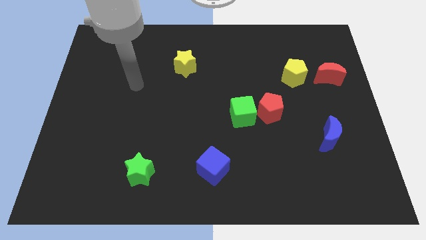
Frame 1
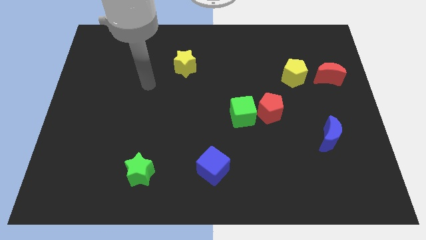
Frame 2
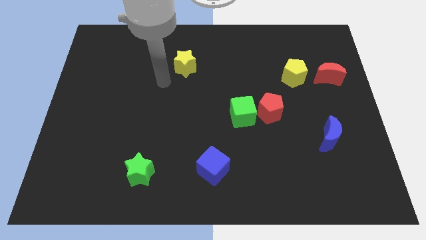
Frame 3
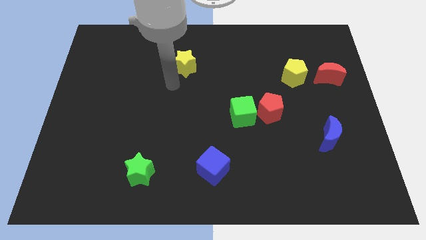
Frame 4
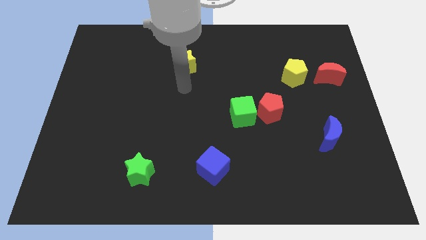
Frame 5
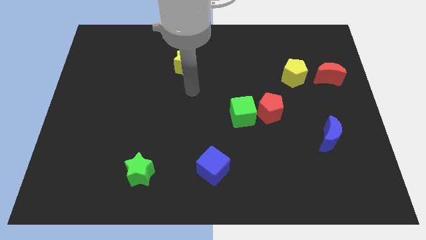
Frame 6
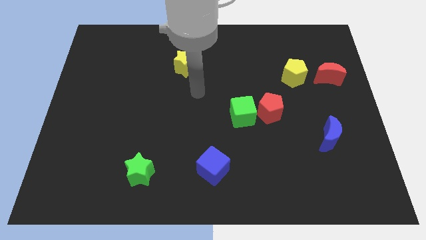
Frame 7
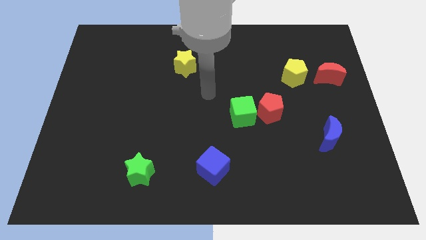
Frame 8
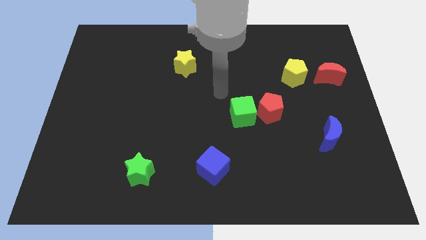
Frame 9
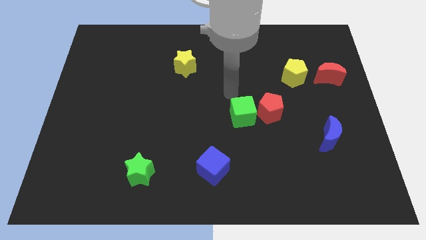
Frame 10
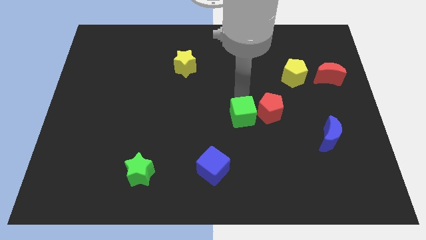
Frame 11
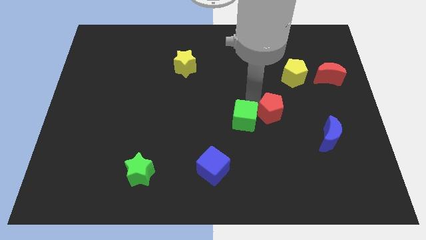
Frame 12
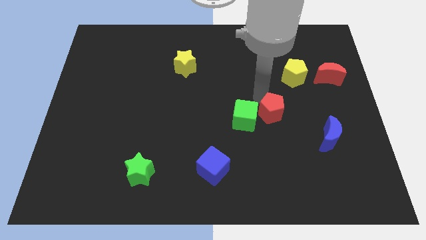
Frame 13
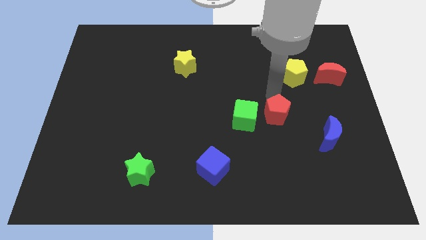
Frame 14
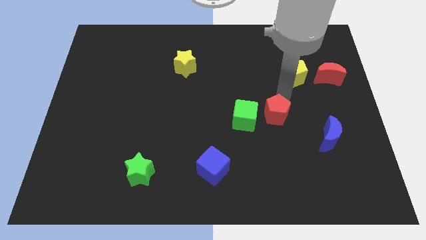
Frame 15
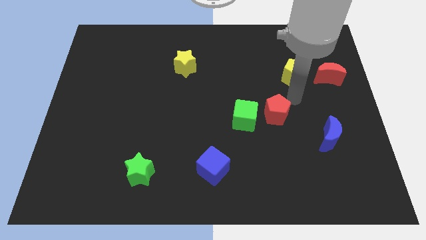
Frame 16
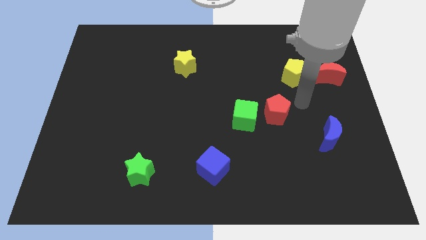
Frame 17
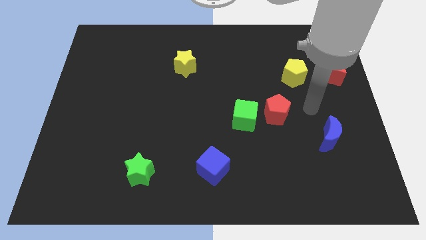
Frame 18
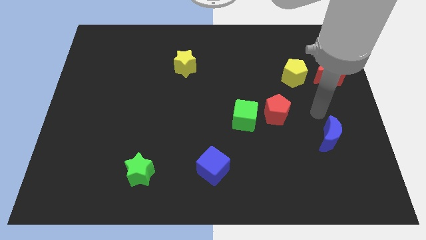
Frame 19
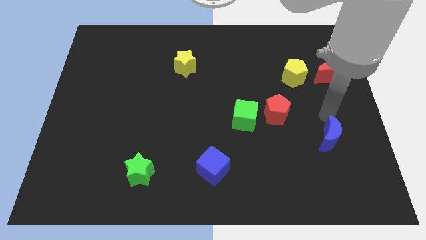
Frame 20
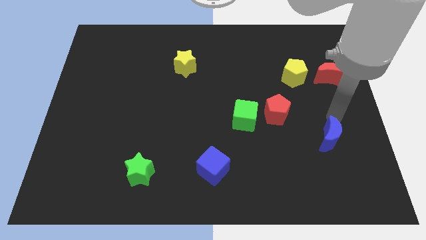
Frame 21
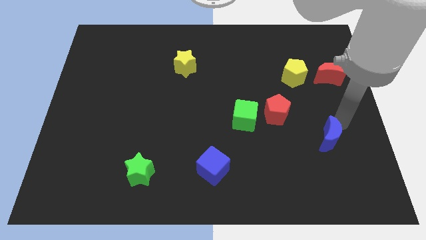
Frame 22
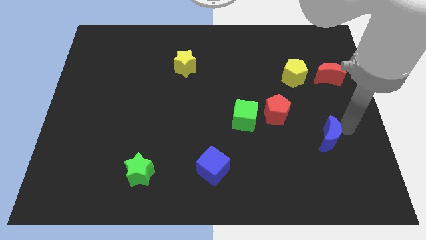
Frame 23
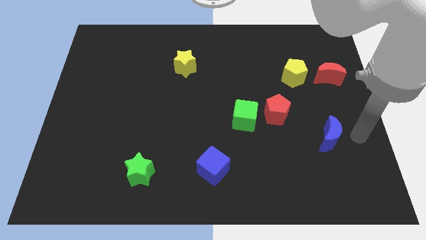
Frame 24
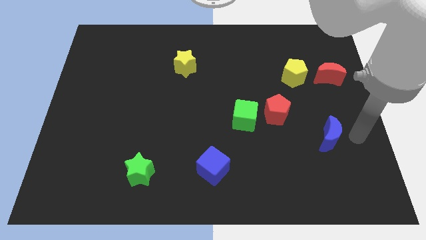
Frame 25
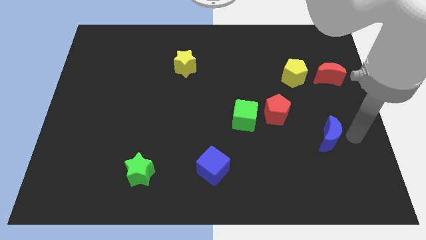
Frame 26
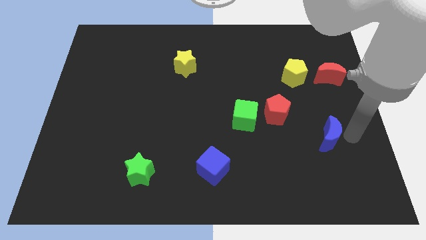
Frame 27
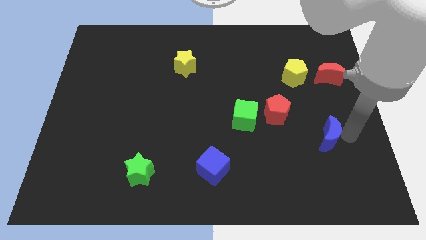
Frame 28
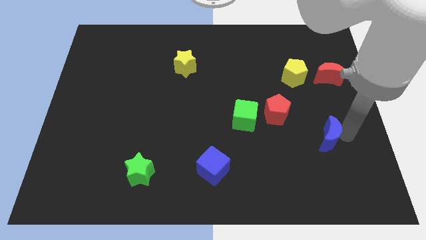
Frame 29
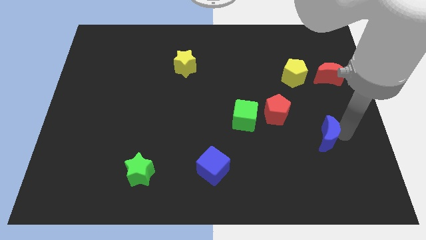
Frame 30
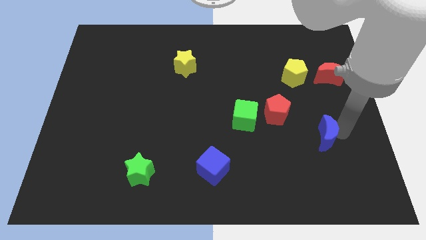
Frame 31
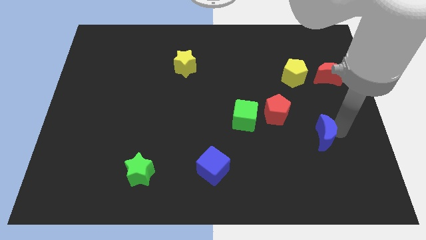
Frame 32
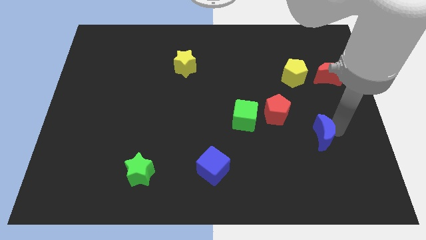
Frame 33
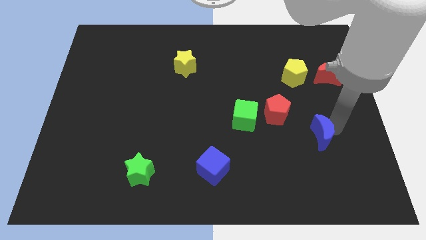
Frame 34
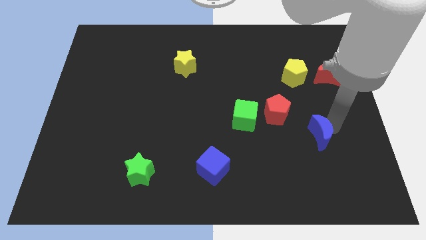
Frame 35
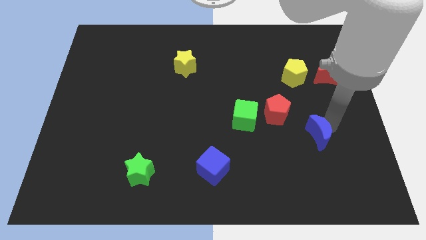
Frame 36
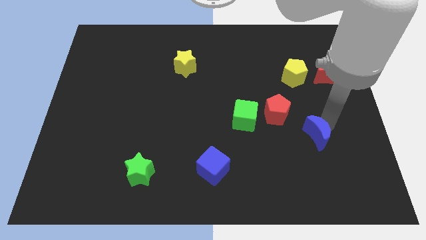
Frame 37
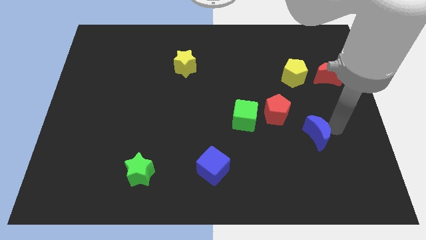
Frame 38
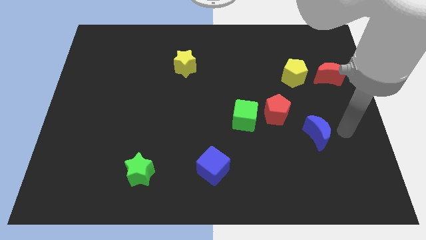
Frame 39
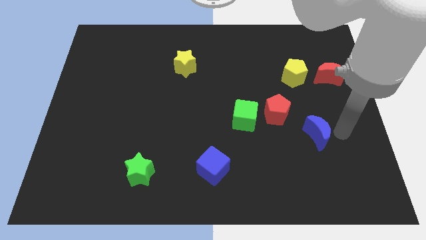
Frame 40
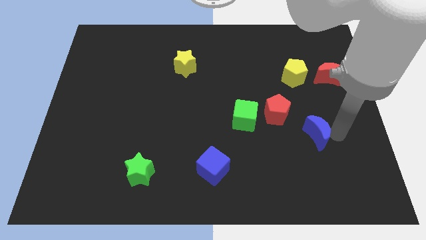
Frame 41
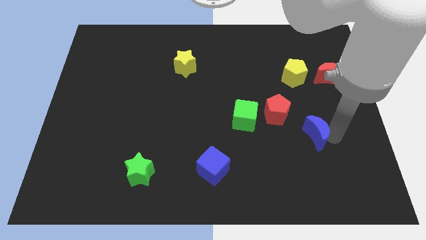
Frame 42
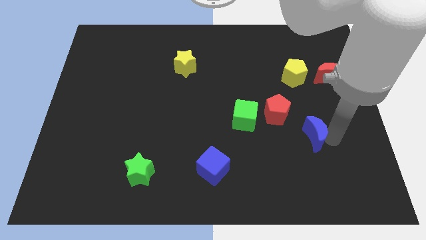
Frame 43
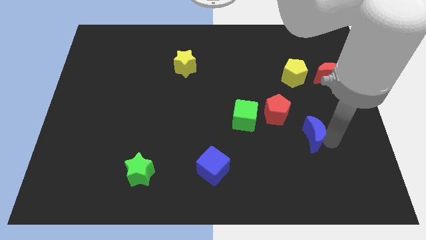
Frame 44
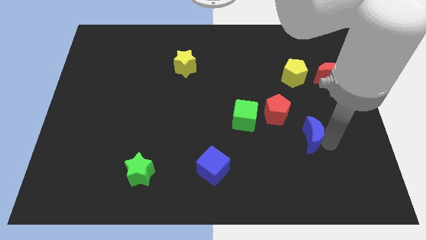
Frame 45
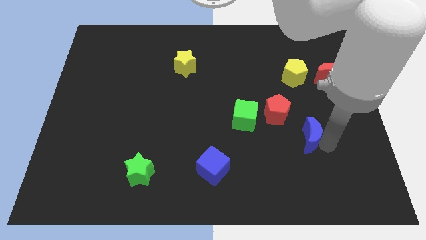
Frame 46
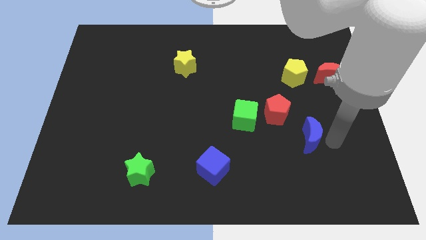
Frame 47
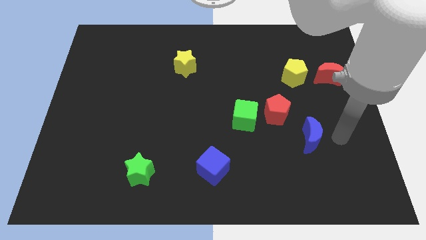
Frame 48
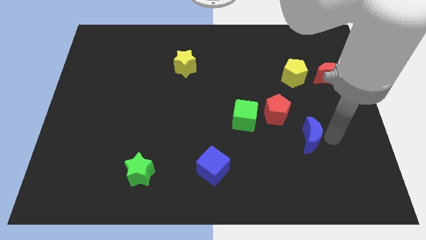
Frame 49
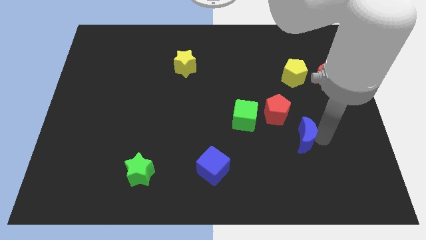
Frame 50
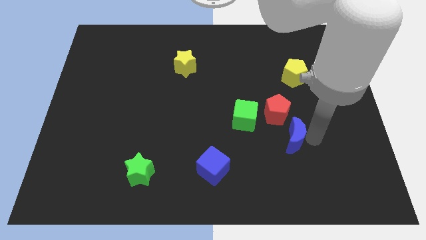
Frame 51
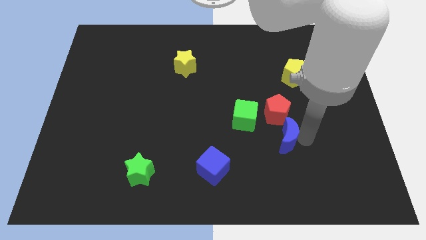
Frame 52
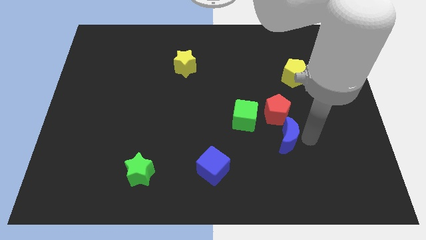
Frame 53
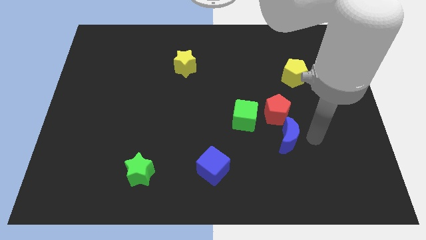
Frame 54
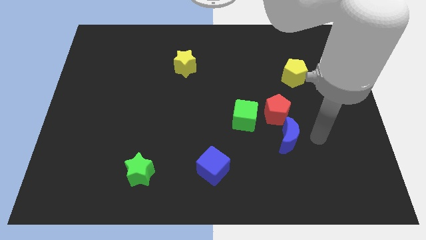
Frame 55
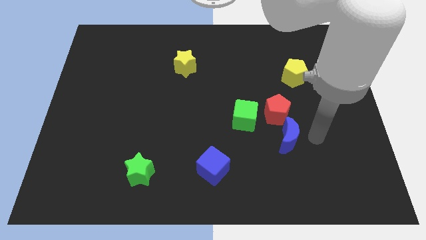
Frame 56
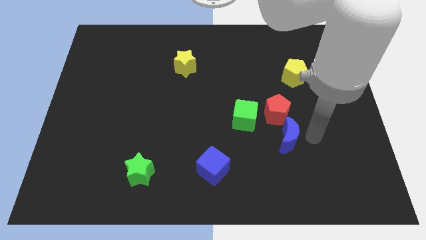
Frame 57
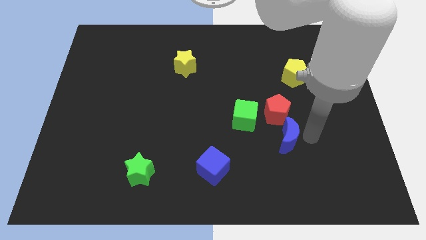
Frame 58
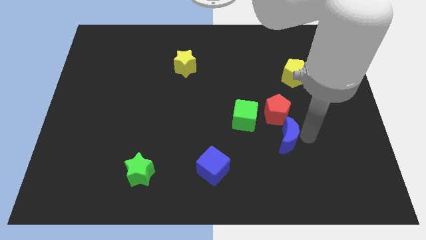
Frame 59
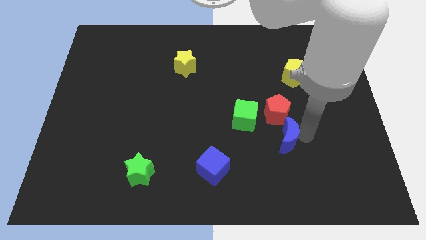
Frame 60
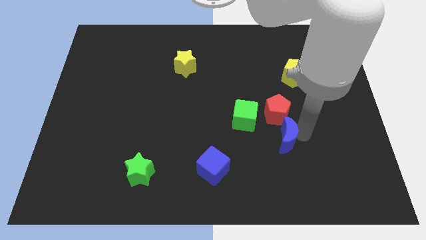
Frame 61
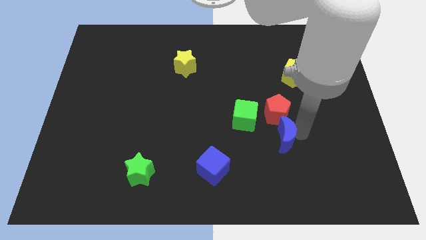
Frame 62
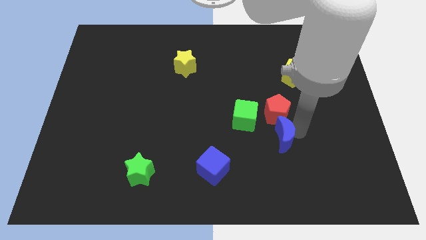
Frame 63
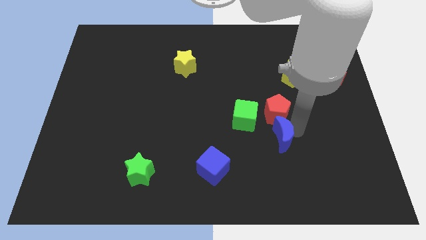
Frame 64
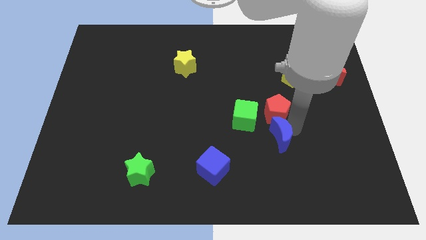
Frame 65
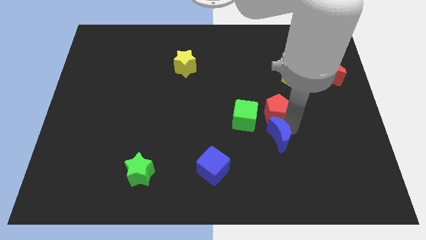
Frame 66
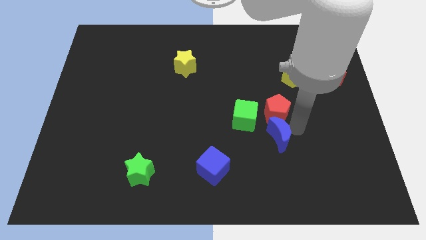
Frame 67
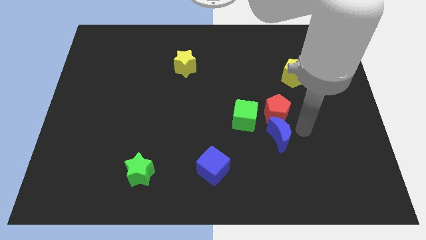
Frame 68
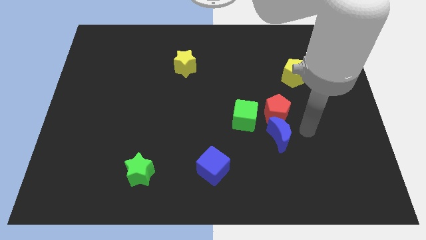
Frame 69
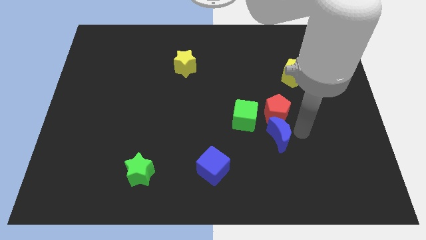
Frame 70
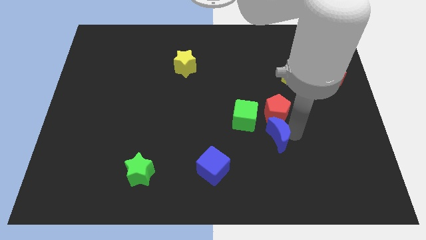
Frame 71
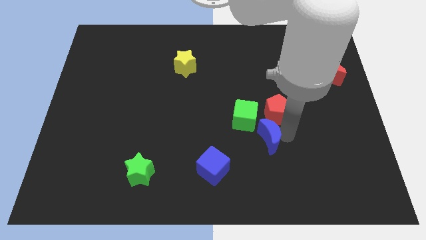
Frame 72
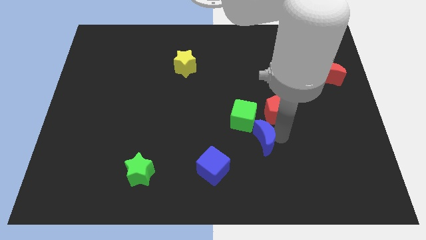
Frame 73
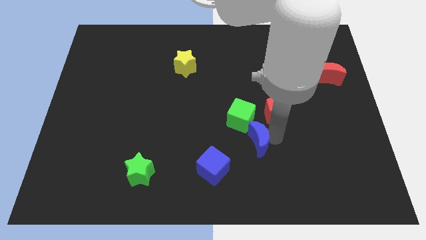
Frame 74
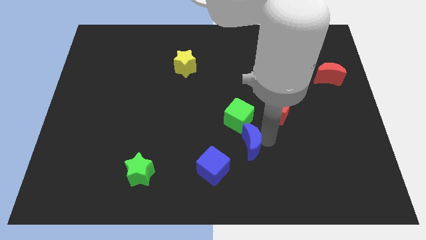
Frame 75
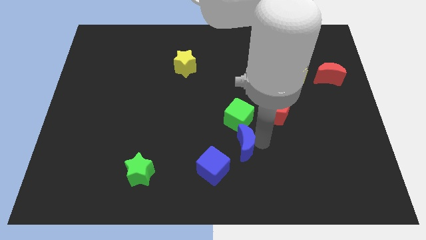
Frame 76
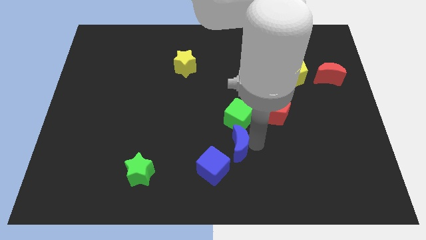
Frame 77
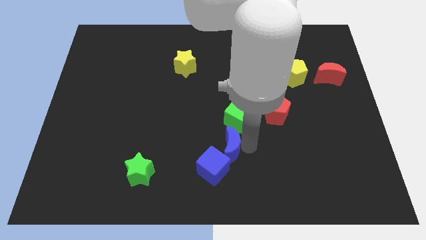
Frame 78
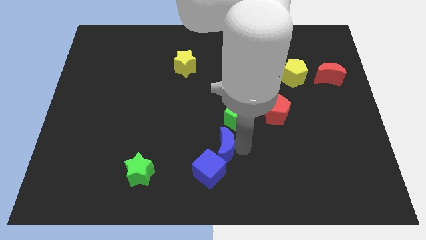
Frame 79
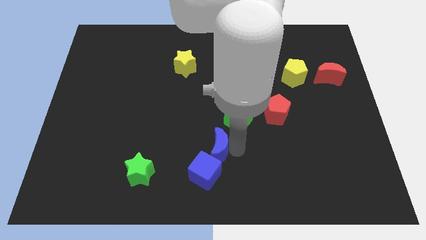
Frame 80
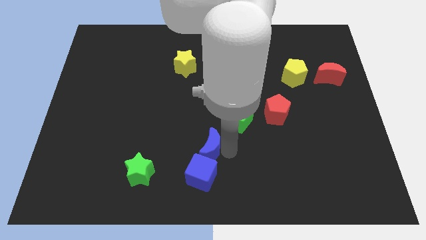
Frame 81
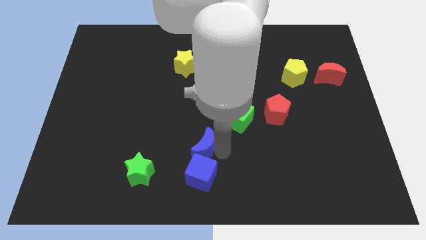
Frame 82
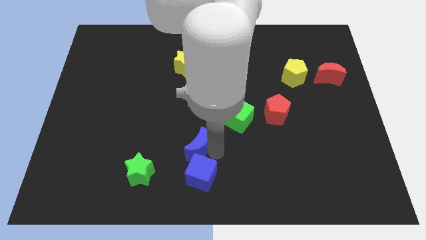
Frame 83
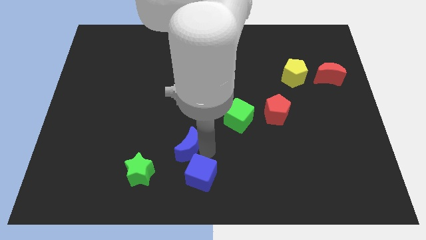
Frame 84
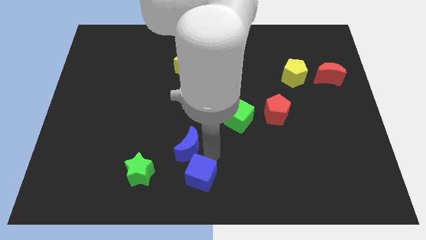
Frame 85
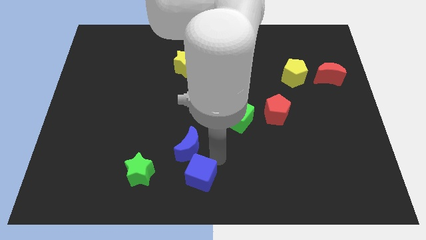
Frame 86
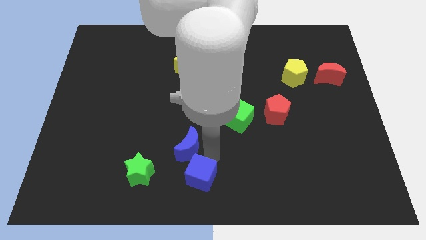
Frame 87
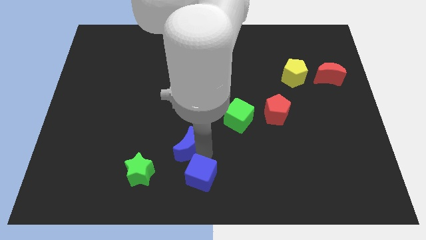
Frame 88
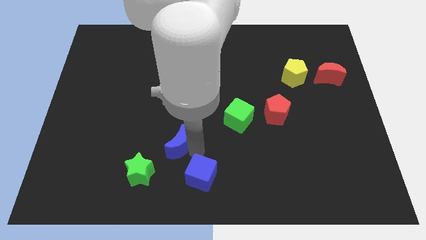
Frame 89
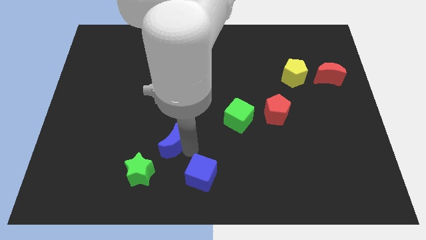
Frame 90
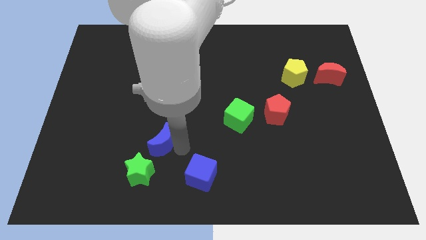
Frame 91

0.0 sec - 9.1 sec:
move the blue moon above the green star
